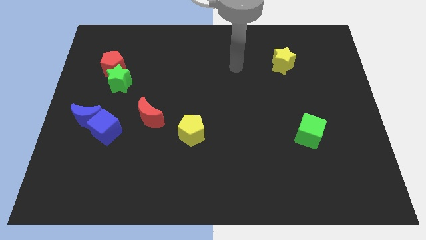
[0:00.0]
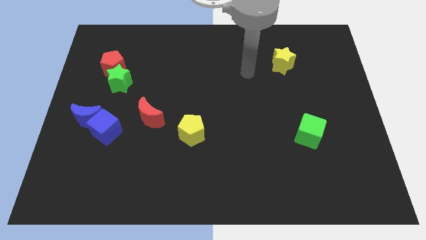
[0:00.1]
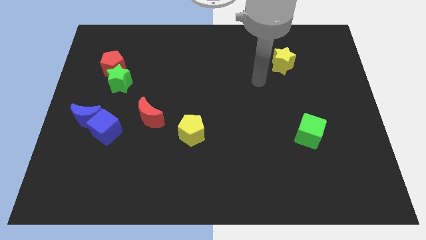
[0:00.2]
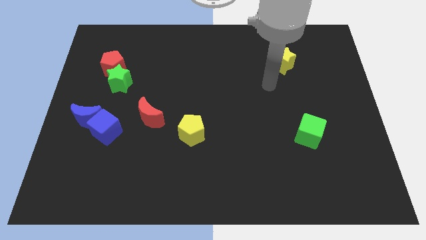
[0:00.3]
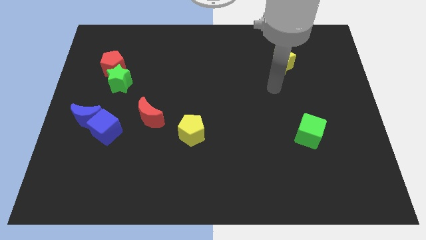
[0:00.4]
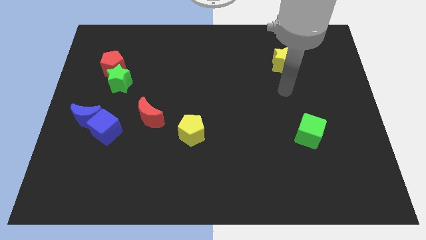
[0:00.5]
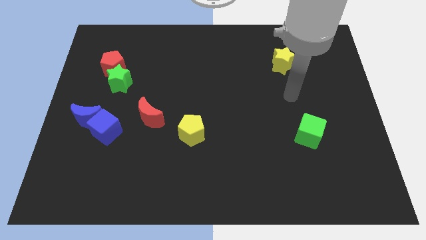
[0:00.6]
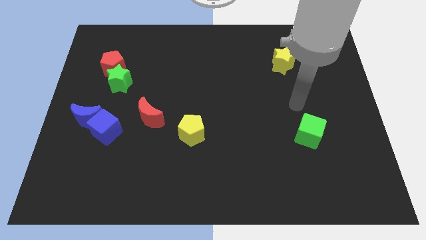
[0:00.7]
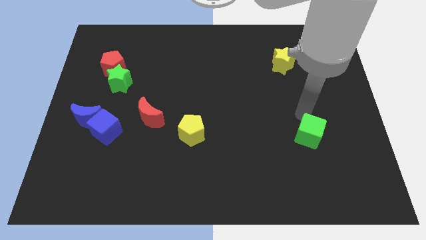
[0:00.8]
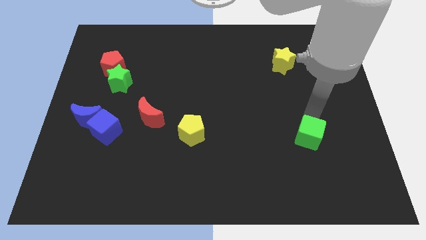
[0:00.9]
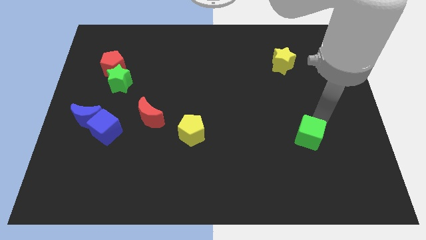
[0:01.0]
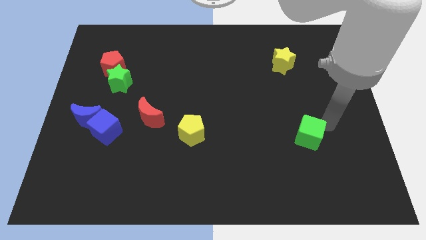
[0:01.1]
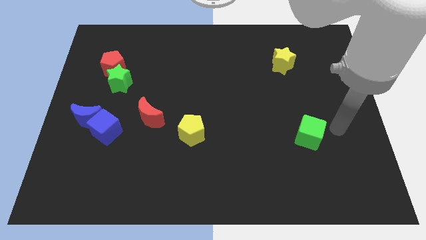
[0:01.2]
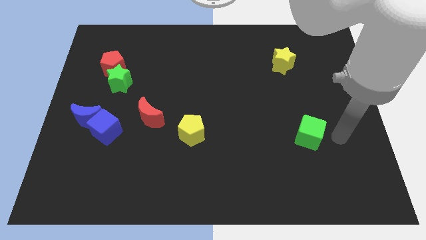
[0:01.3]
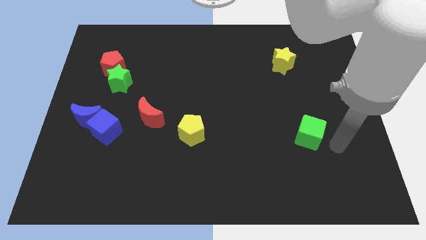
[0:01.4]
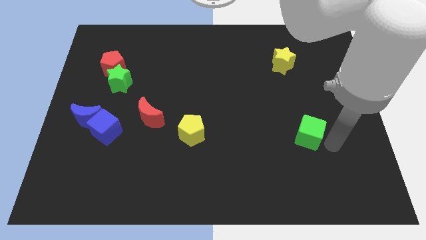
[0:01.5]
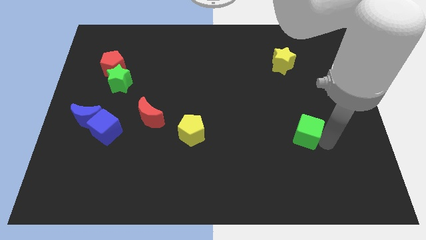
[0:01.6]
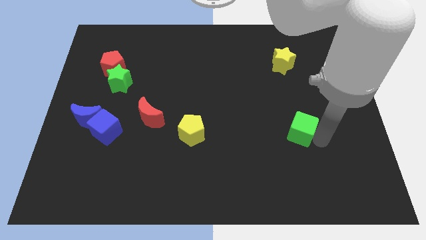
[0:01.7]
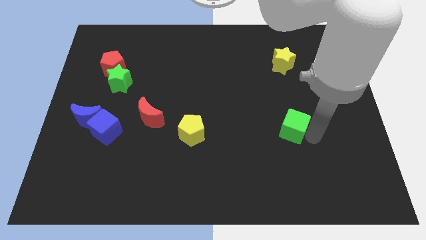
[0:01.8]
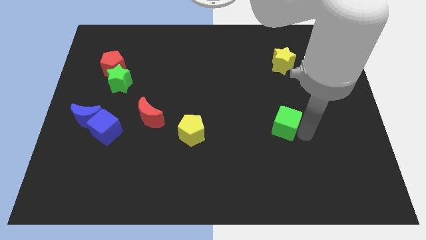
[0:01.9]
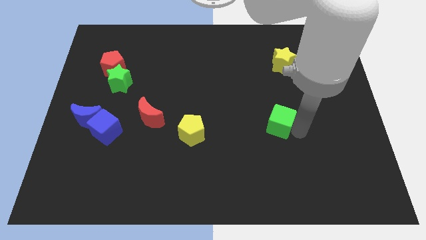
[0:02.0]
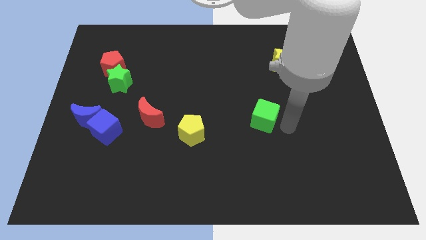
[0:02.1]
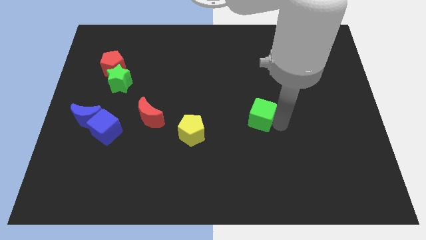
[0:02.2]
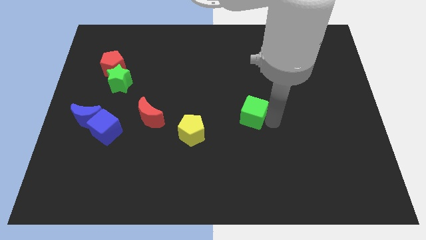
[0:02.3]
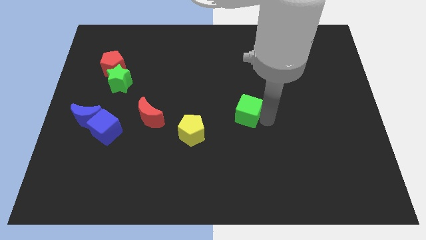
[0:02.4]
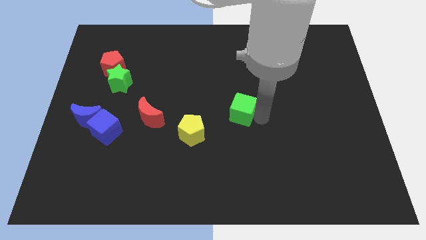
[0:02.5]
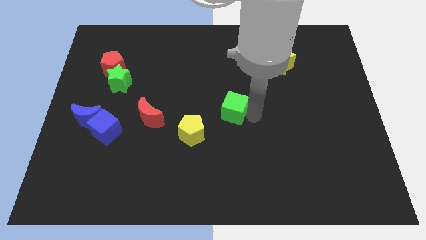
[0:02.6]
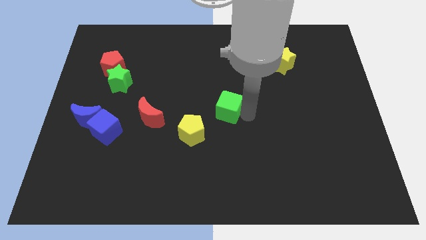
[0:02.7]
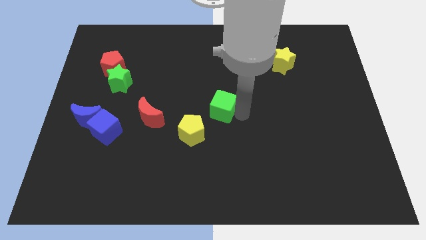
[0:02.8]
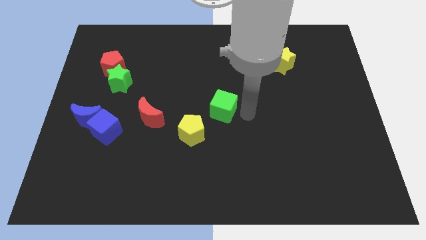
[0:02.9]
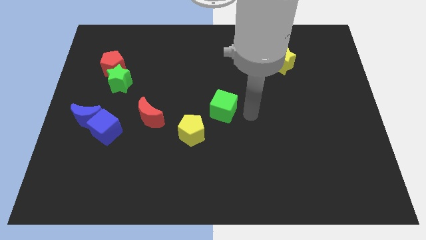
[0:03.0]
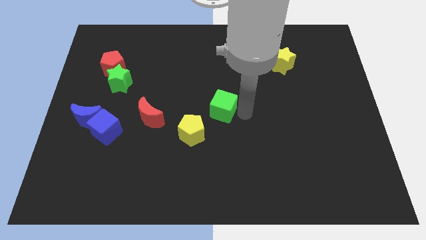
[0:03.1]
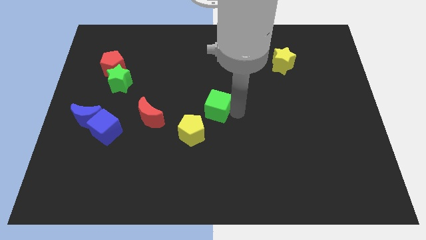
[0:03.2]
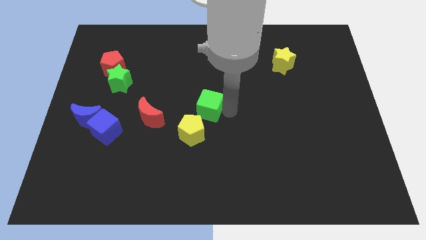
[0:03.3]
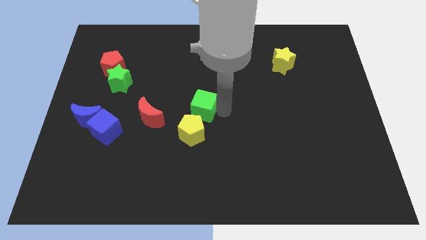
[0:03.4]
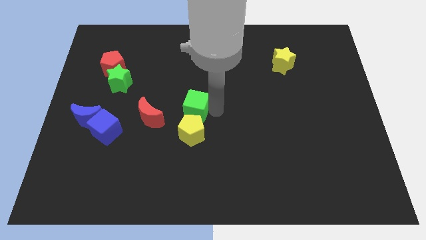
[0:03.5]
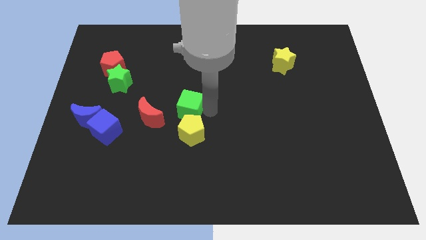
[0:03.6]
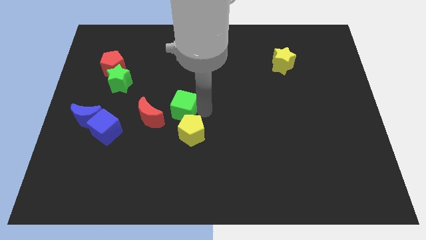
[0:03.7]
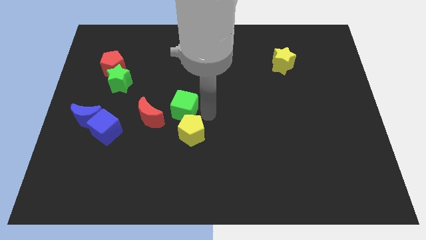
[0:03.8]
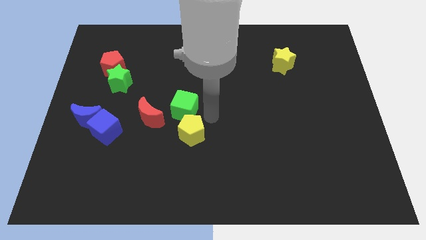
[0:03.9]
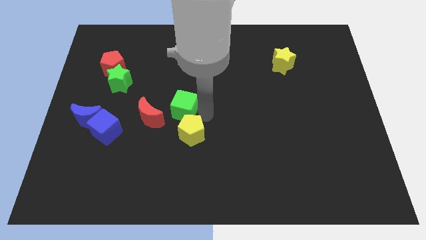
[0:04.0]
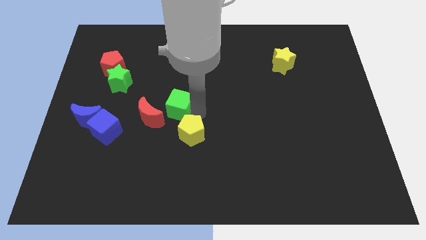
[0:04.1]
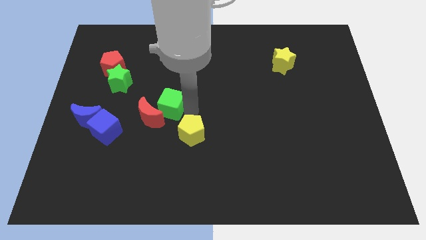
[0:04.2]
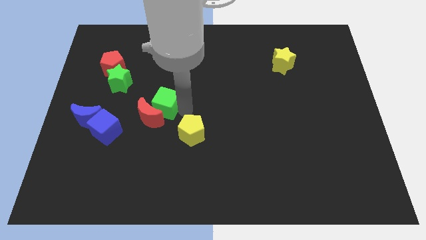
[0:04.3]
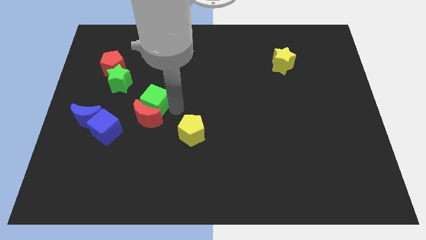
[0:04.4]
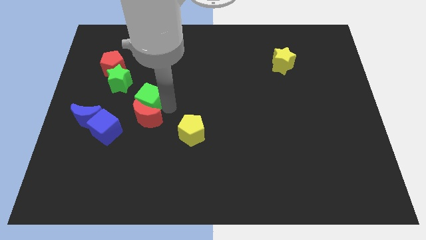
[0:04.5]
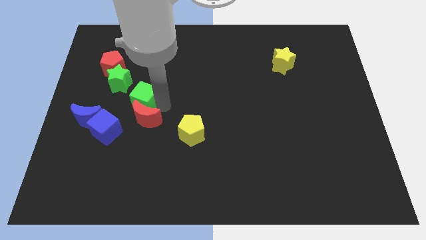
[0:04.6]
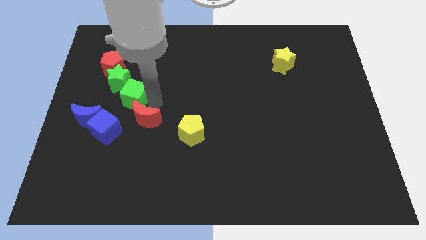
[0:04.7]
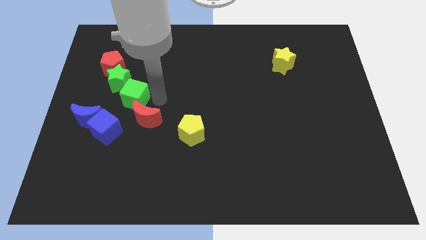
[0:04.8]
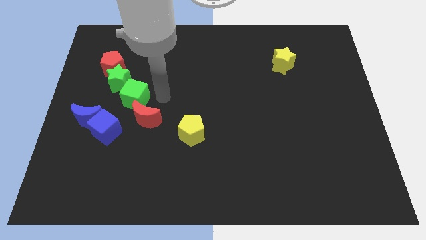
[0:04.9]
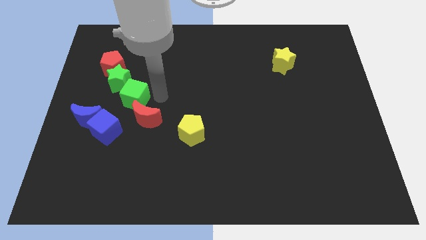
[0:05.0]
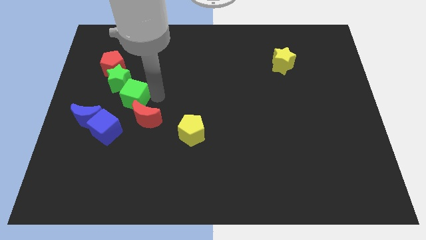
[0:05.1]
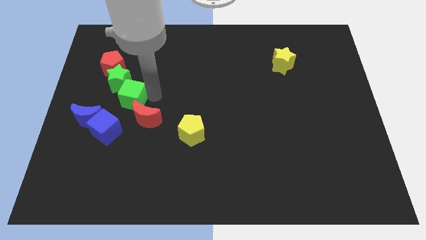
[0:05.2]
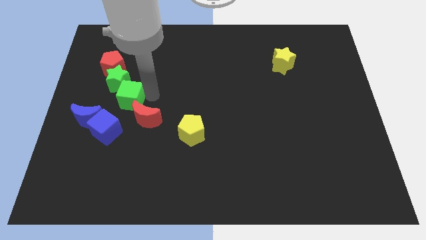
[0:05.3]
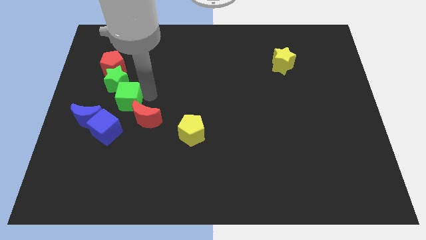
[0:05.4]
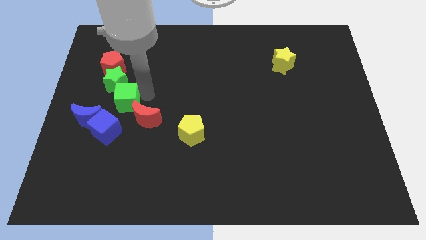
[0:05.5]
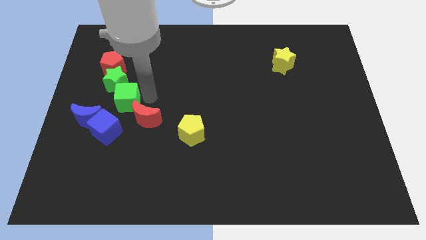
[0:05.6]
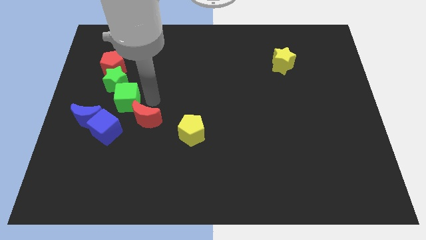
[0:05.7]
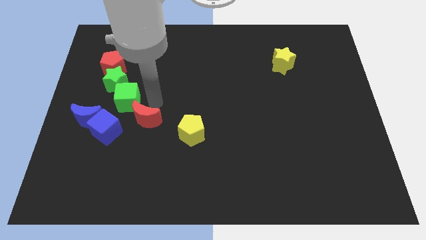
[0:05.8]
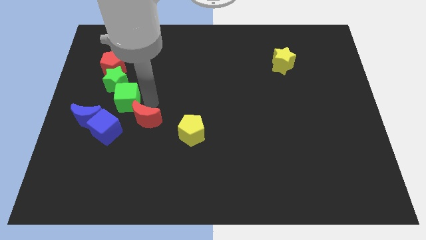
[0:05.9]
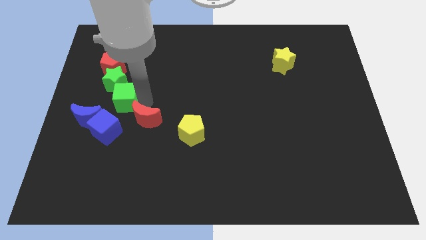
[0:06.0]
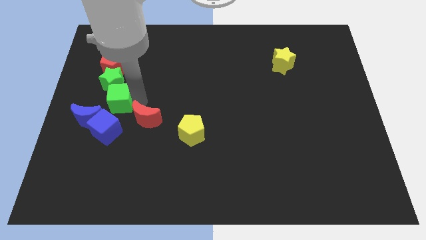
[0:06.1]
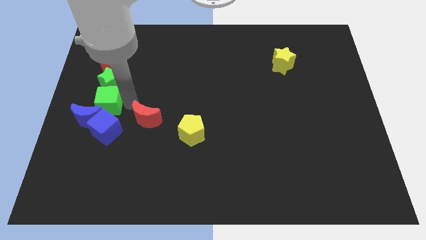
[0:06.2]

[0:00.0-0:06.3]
push the green cube above the blue moon

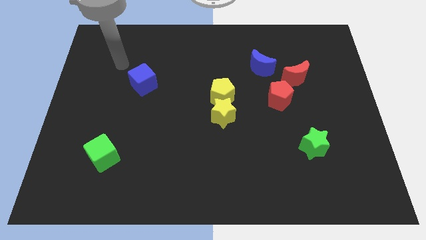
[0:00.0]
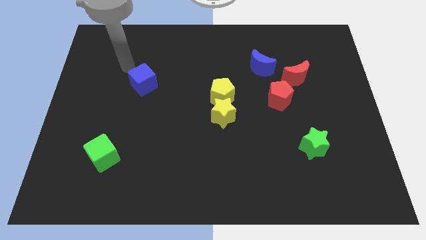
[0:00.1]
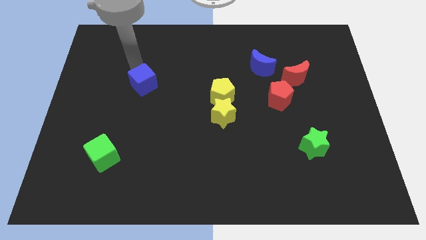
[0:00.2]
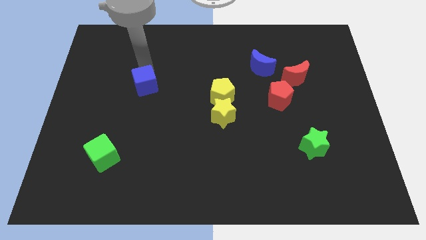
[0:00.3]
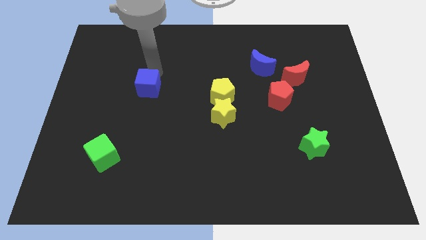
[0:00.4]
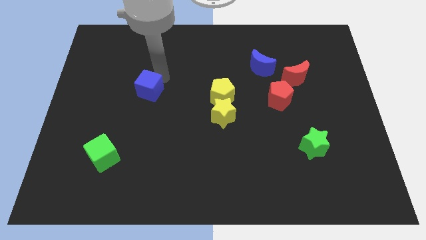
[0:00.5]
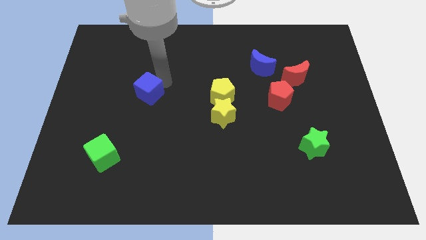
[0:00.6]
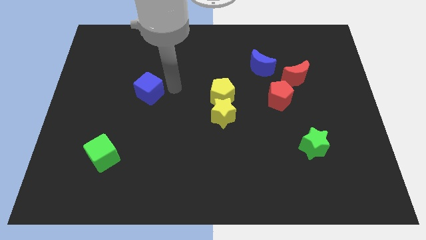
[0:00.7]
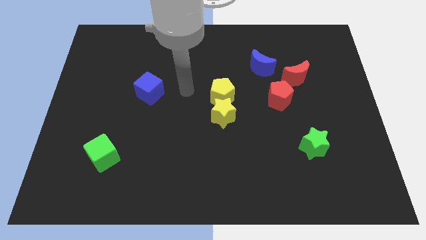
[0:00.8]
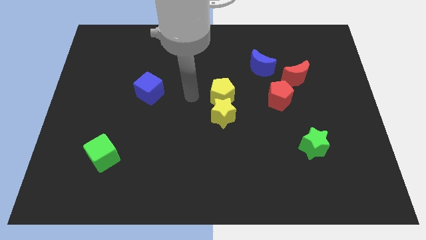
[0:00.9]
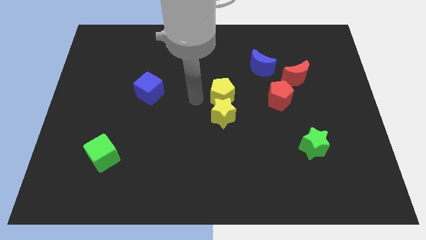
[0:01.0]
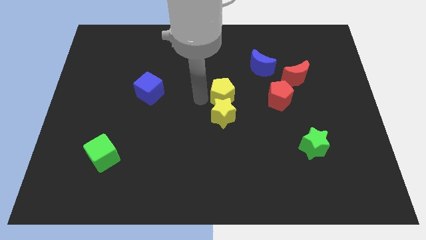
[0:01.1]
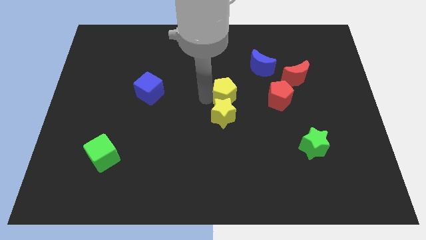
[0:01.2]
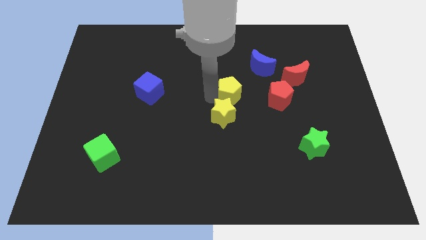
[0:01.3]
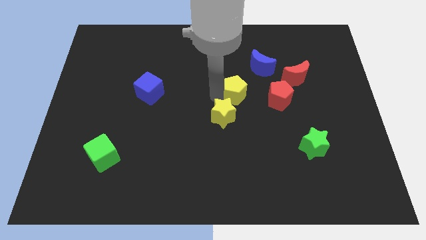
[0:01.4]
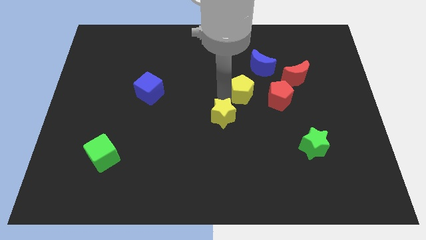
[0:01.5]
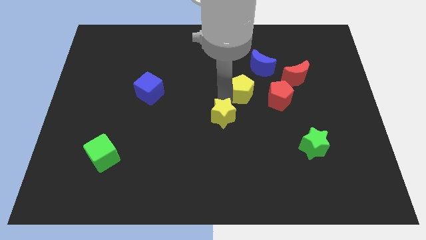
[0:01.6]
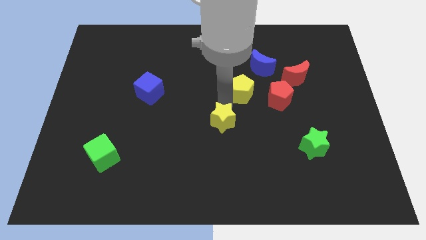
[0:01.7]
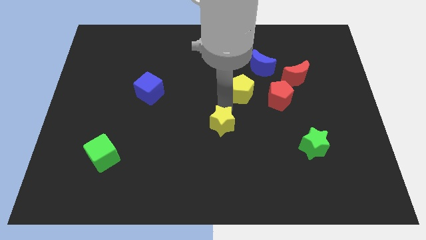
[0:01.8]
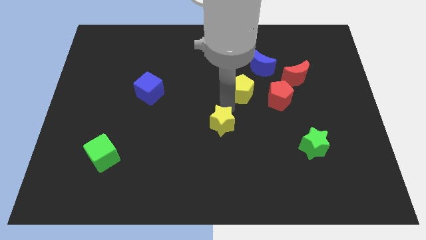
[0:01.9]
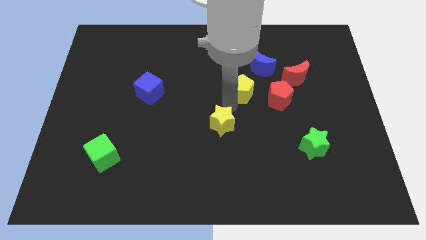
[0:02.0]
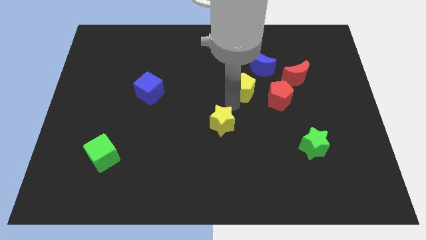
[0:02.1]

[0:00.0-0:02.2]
slide the yellow pentagon to the left side of the red moon
